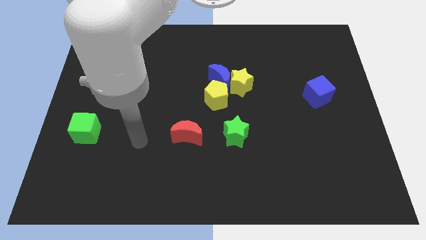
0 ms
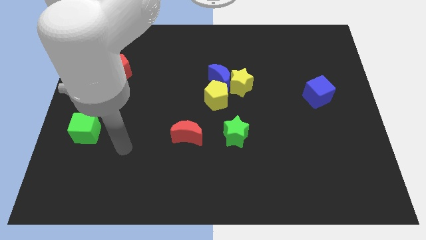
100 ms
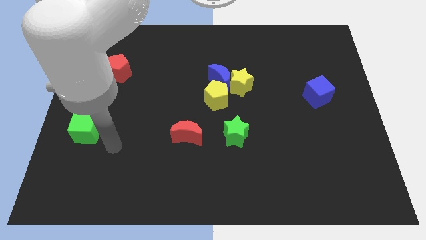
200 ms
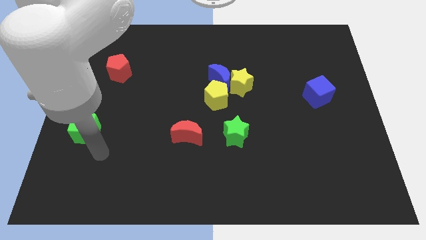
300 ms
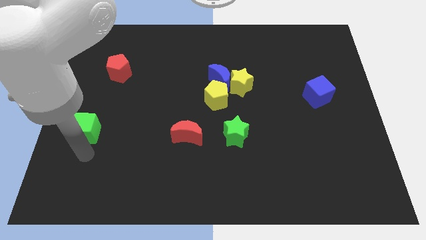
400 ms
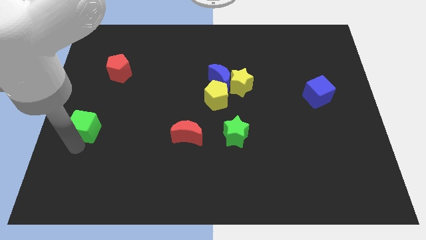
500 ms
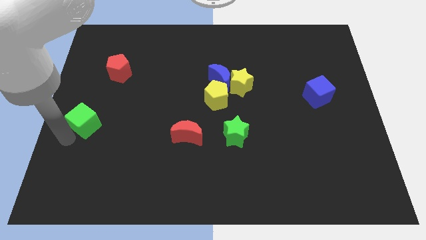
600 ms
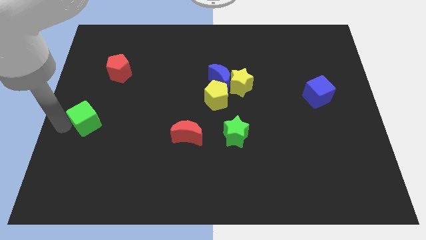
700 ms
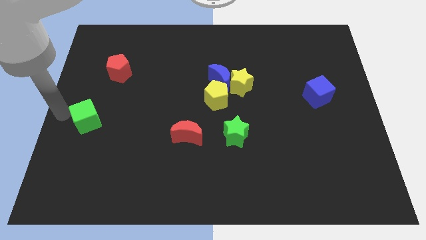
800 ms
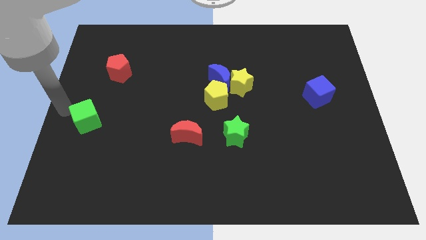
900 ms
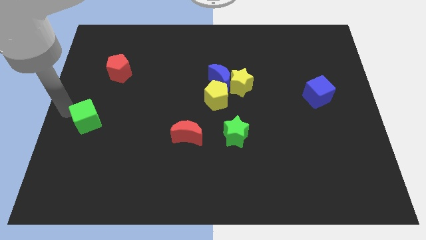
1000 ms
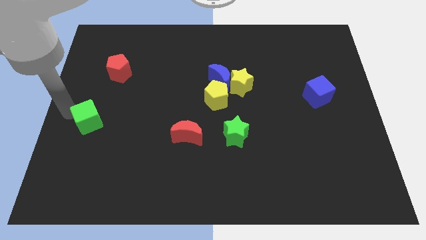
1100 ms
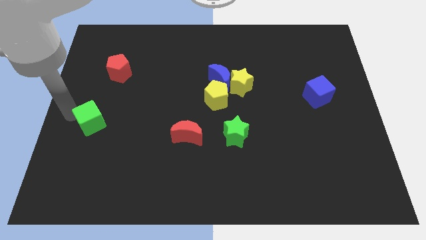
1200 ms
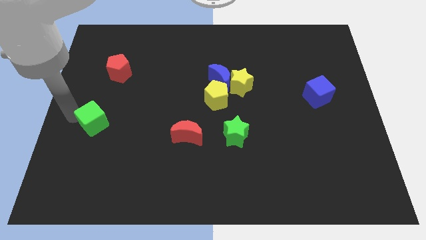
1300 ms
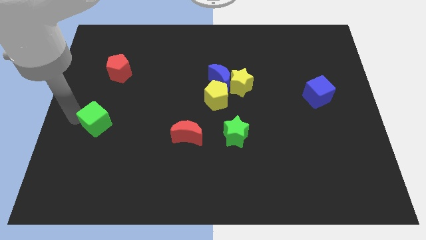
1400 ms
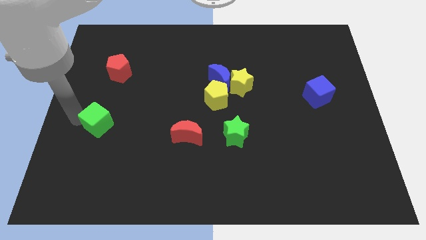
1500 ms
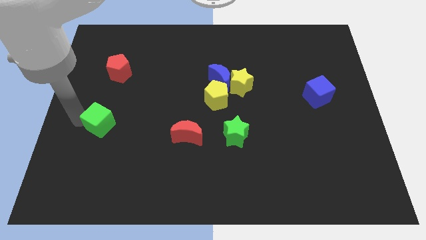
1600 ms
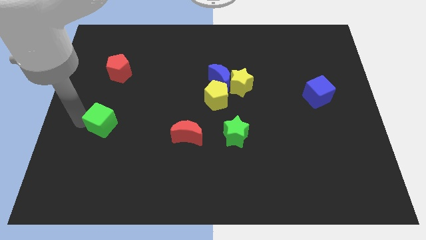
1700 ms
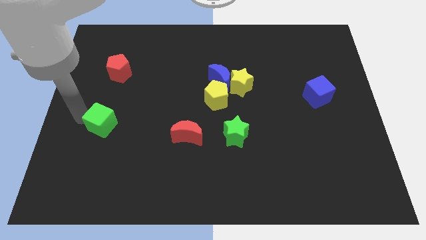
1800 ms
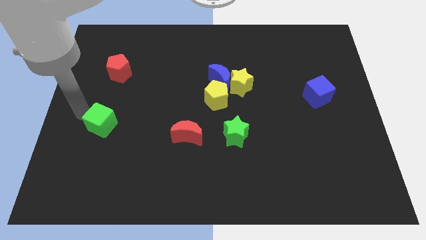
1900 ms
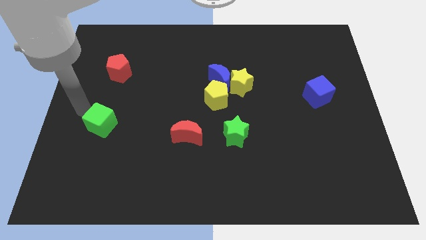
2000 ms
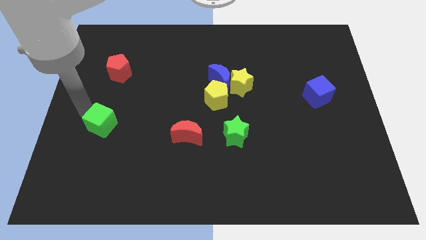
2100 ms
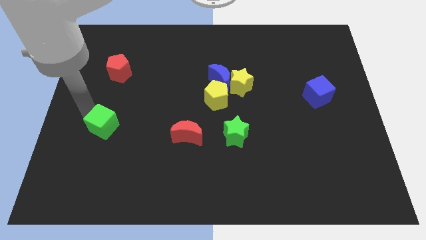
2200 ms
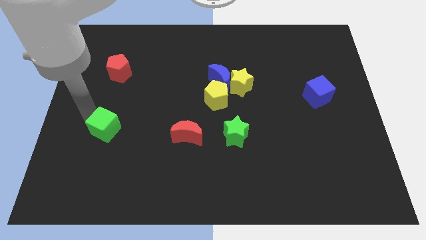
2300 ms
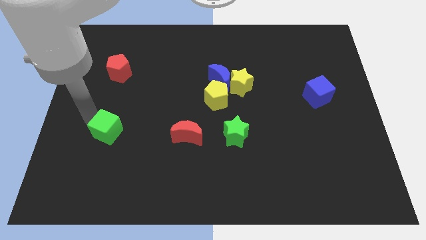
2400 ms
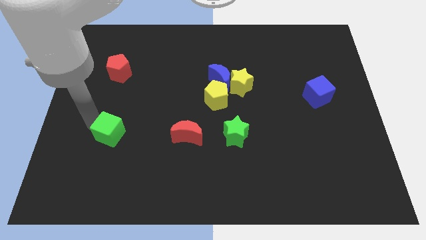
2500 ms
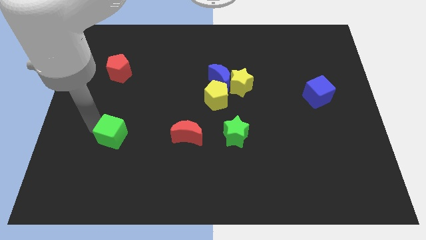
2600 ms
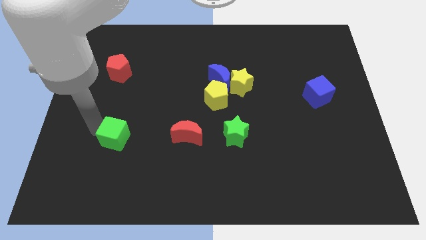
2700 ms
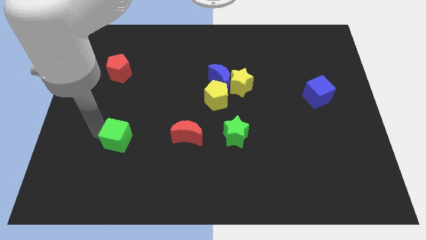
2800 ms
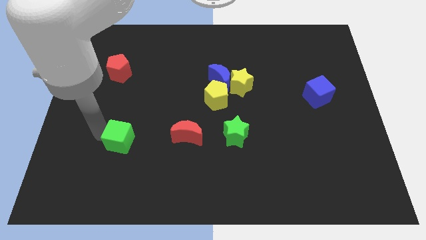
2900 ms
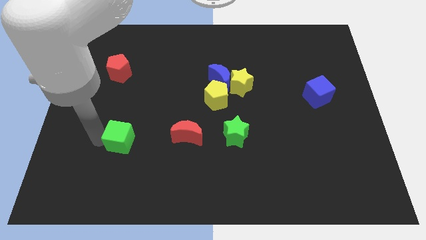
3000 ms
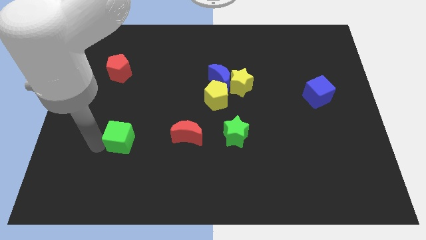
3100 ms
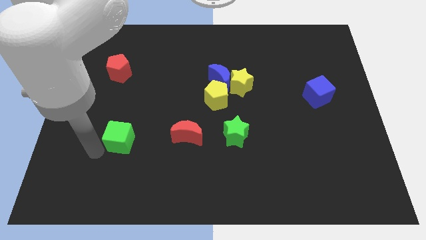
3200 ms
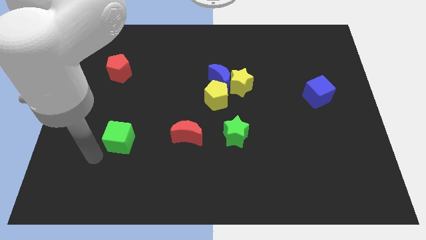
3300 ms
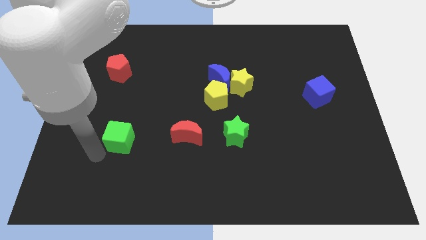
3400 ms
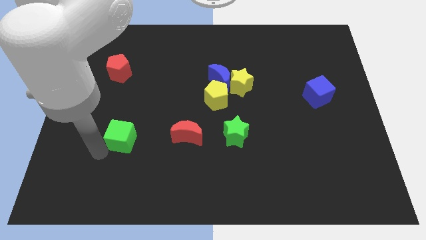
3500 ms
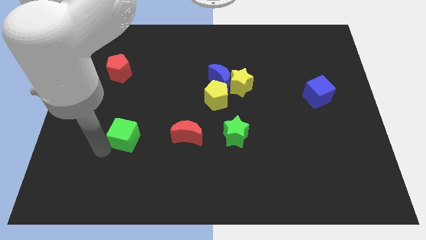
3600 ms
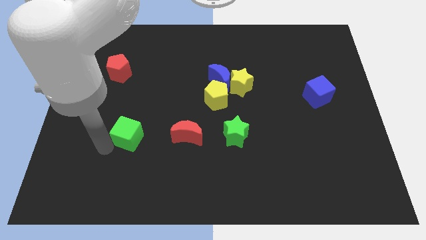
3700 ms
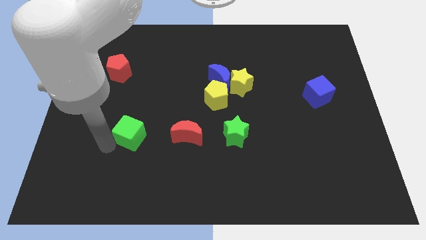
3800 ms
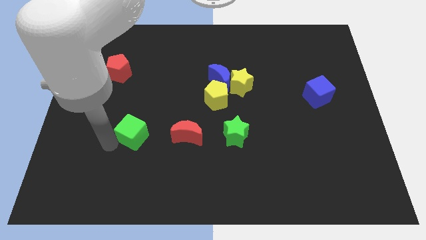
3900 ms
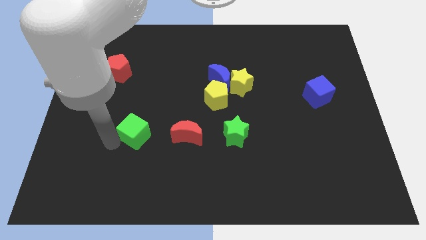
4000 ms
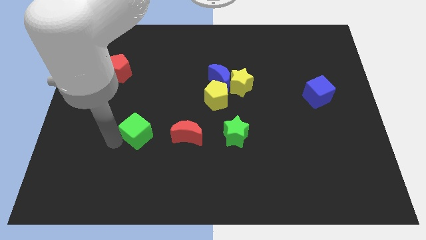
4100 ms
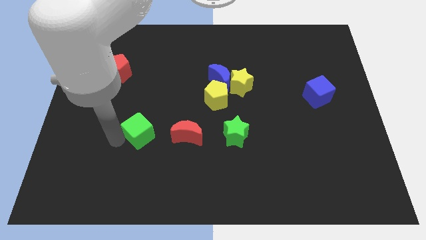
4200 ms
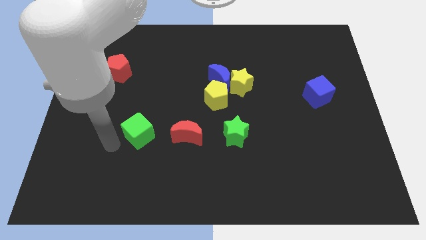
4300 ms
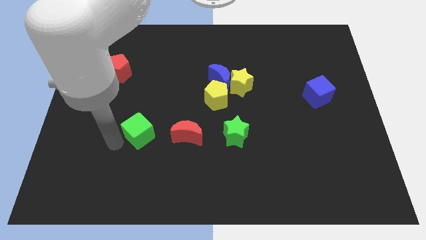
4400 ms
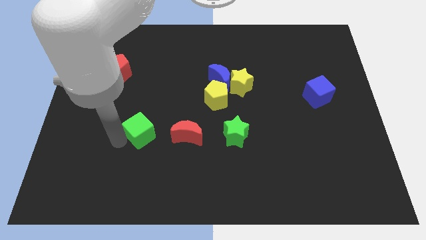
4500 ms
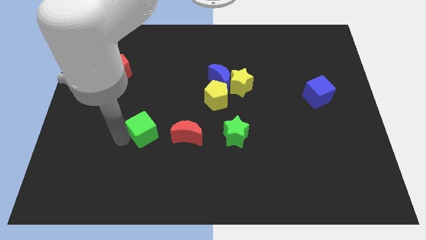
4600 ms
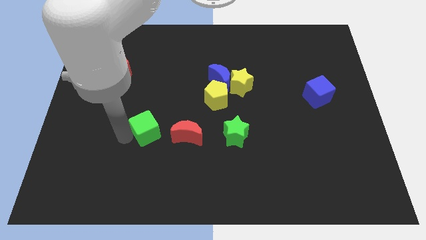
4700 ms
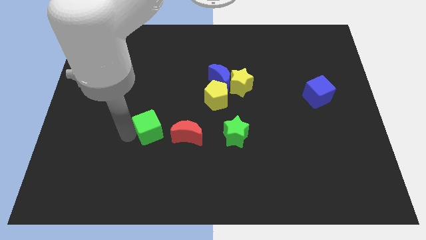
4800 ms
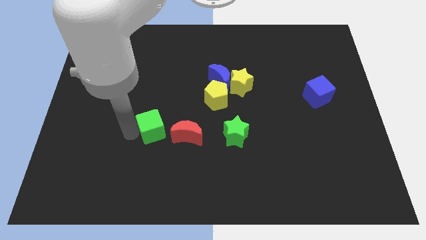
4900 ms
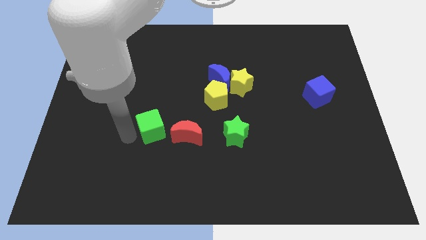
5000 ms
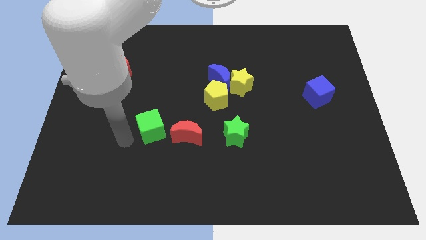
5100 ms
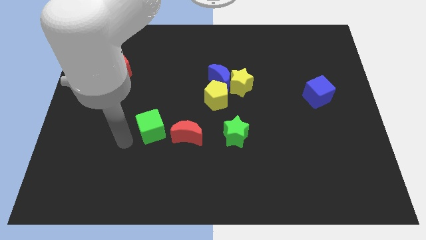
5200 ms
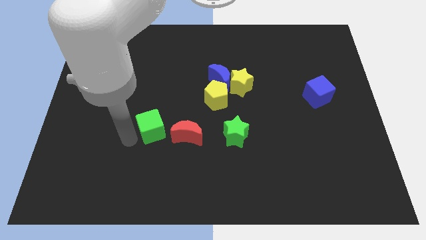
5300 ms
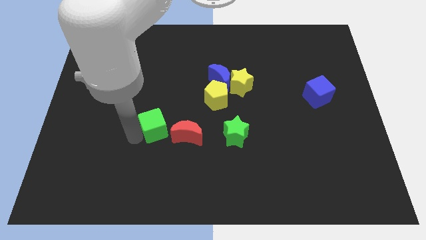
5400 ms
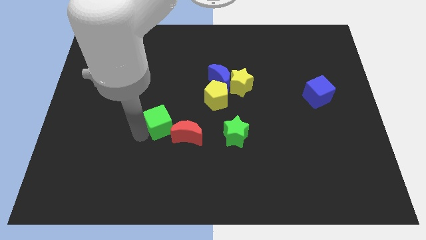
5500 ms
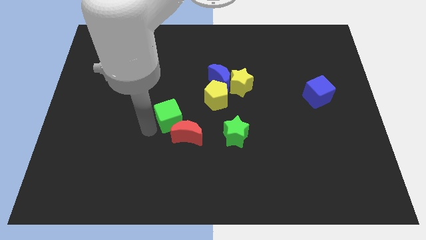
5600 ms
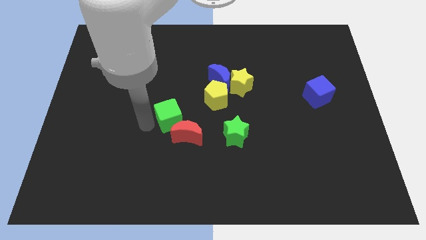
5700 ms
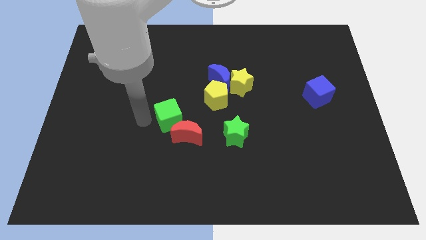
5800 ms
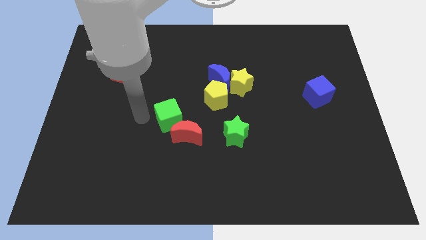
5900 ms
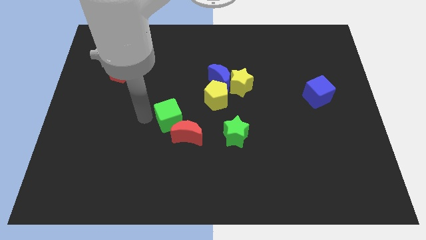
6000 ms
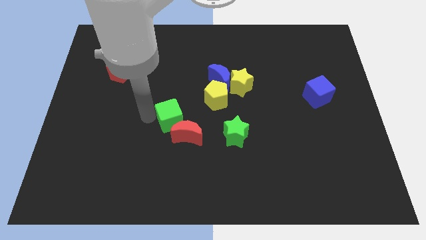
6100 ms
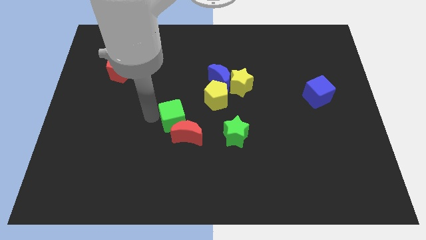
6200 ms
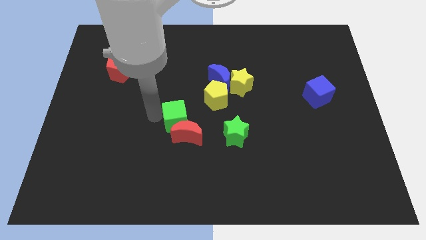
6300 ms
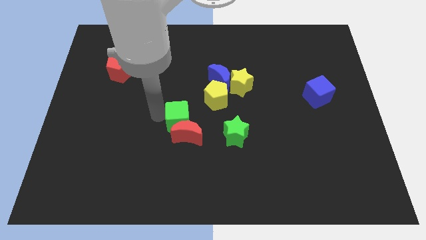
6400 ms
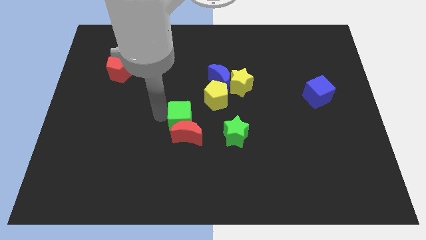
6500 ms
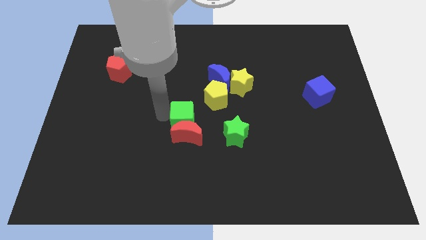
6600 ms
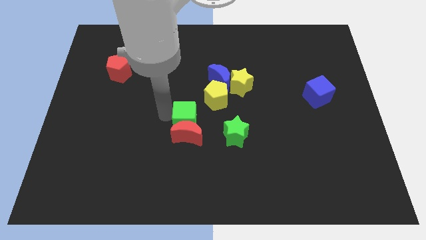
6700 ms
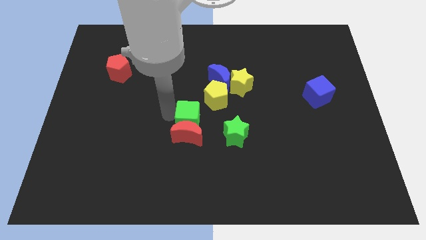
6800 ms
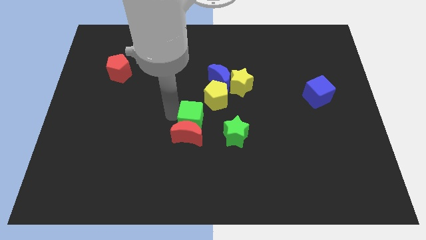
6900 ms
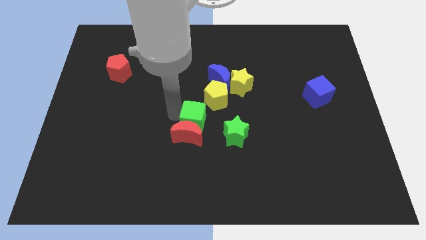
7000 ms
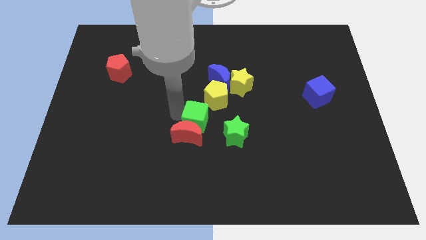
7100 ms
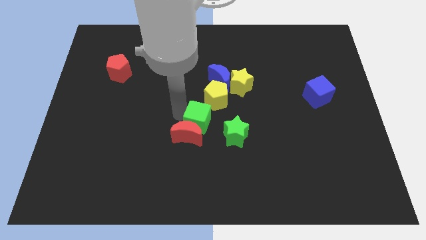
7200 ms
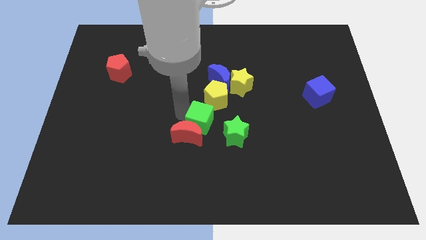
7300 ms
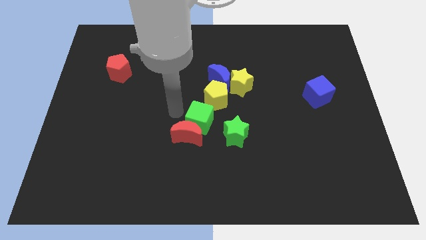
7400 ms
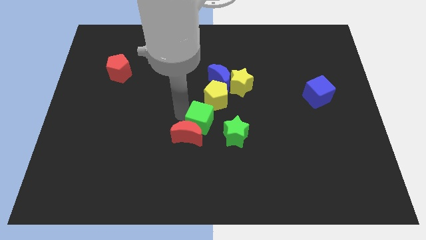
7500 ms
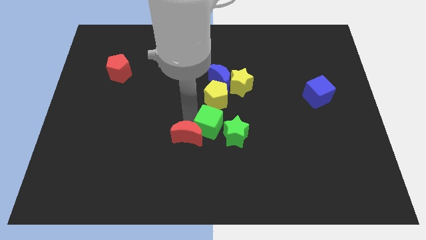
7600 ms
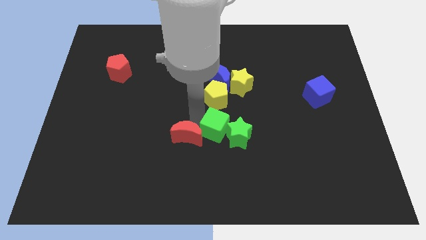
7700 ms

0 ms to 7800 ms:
push the green cube next to the green star
